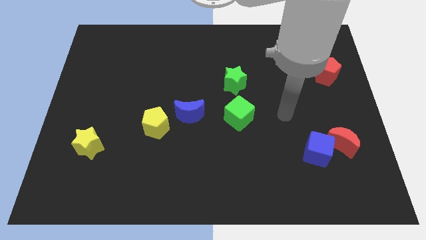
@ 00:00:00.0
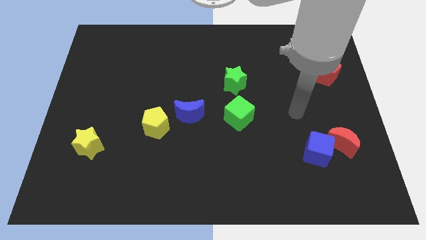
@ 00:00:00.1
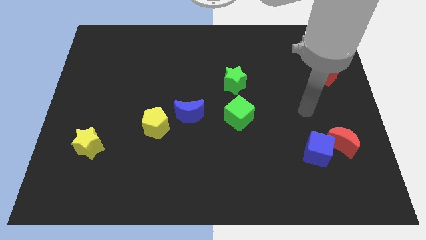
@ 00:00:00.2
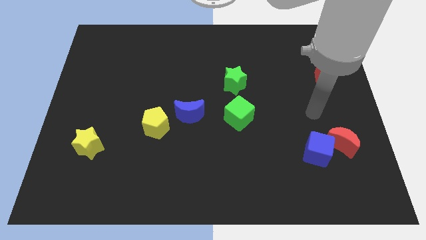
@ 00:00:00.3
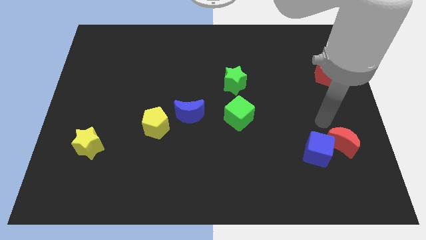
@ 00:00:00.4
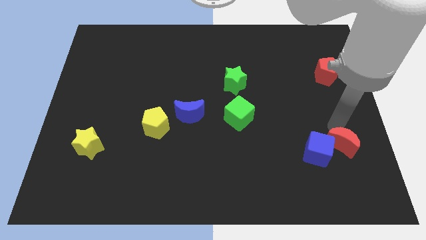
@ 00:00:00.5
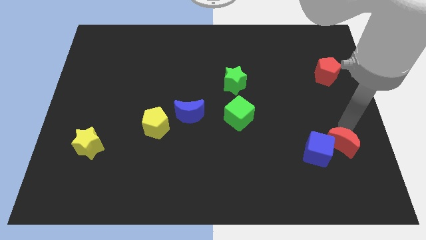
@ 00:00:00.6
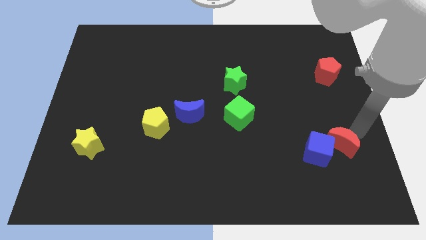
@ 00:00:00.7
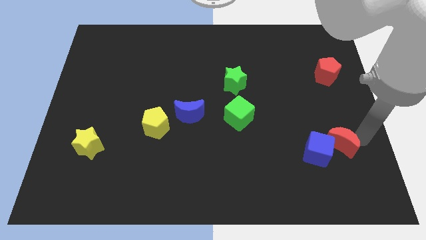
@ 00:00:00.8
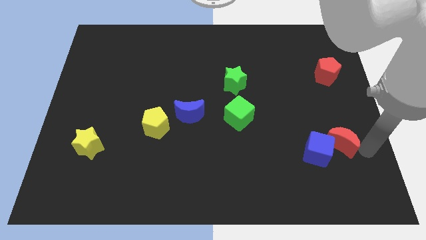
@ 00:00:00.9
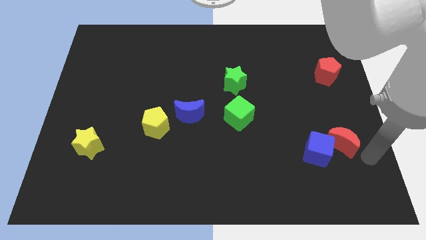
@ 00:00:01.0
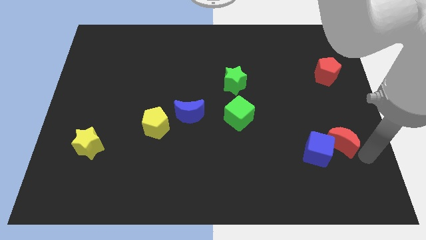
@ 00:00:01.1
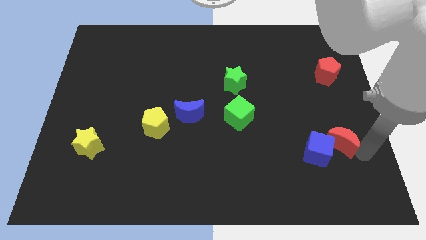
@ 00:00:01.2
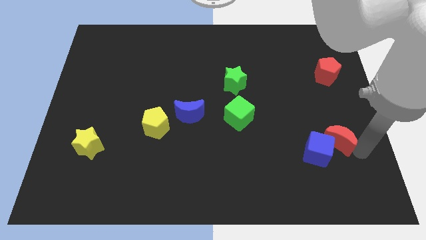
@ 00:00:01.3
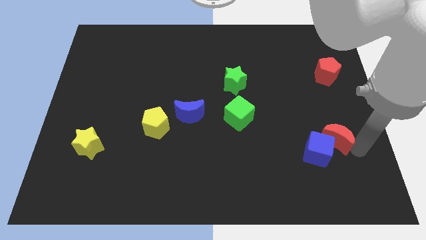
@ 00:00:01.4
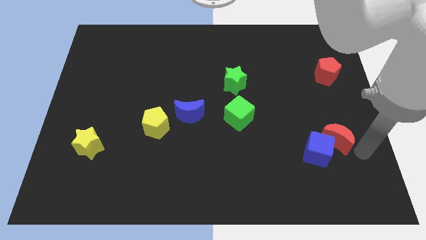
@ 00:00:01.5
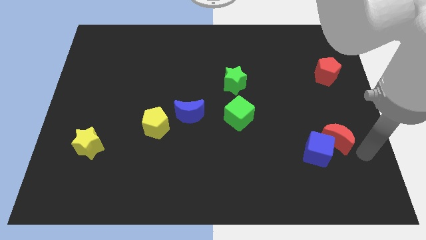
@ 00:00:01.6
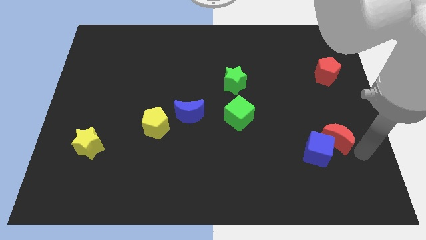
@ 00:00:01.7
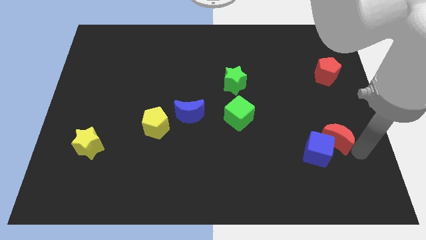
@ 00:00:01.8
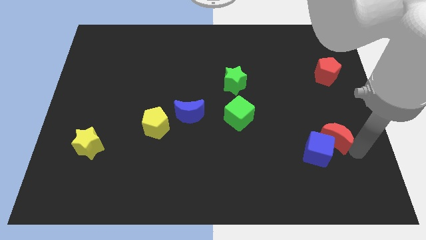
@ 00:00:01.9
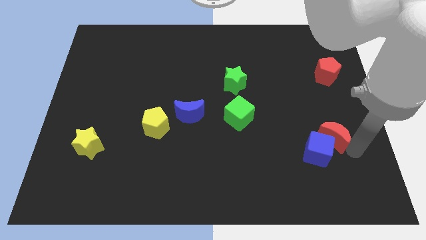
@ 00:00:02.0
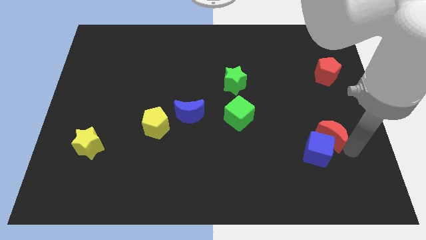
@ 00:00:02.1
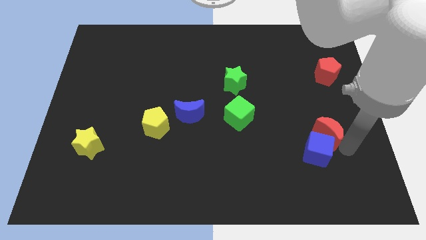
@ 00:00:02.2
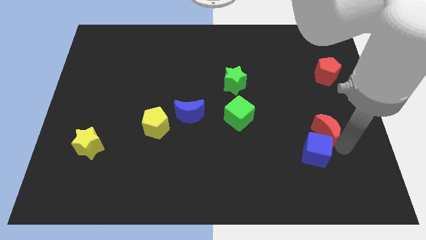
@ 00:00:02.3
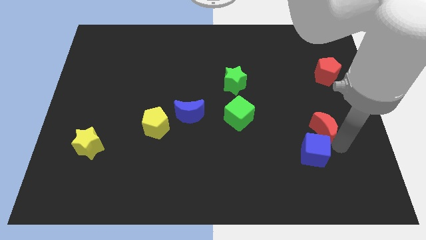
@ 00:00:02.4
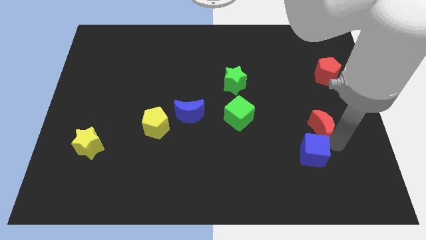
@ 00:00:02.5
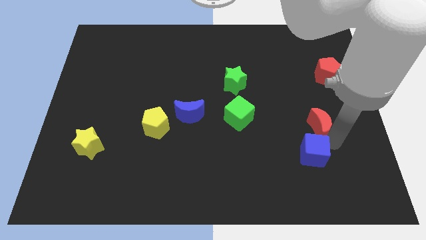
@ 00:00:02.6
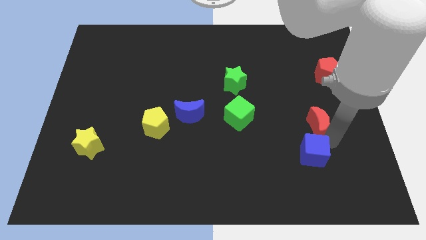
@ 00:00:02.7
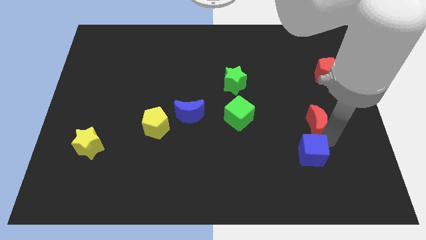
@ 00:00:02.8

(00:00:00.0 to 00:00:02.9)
push the red moon up and left a bit

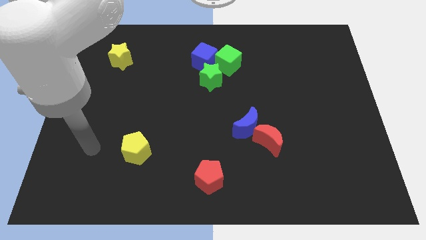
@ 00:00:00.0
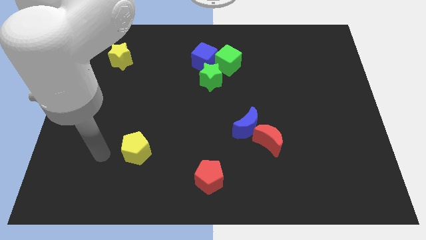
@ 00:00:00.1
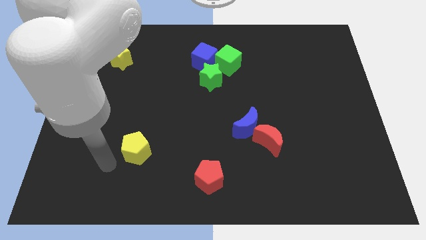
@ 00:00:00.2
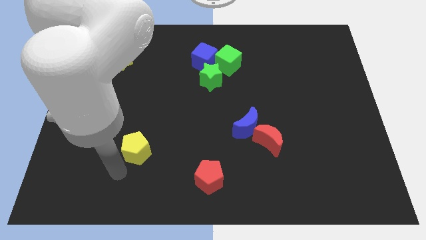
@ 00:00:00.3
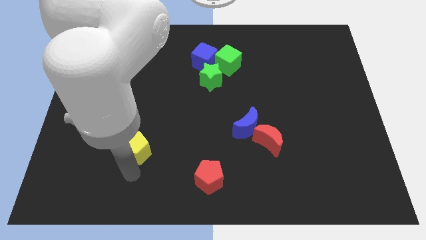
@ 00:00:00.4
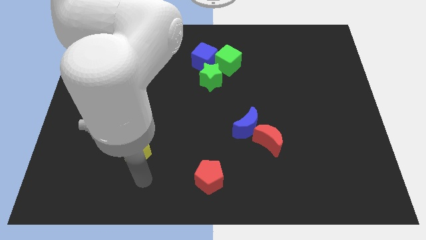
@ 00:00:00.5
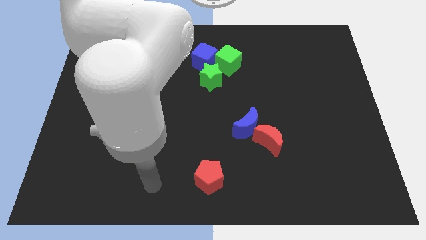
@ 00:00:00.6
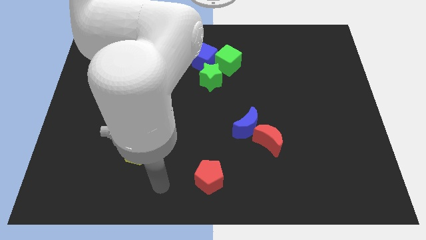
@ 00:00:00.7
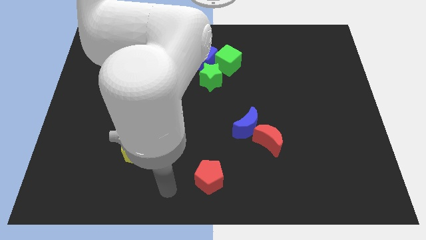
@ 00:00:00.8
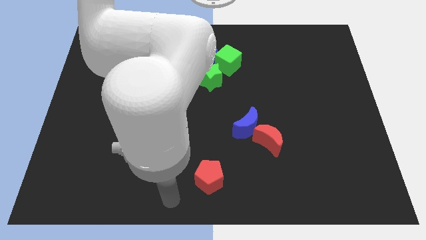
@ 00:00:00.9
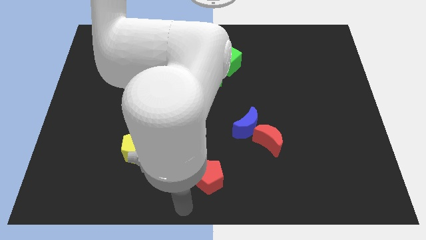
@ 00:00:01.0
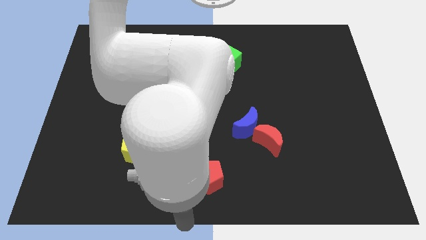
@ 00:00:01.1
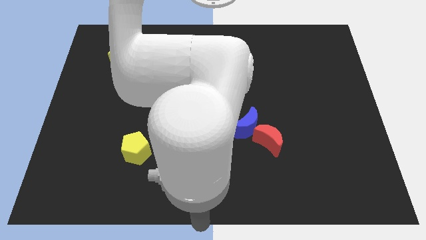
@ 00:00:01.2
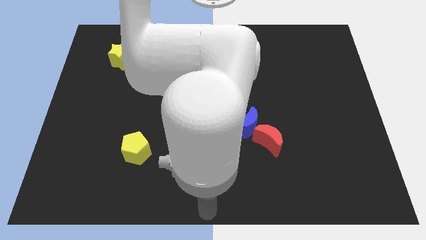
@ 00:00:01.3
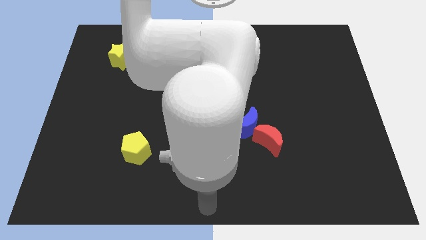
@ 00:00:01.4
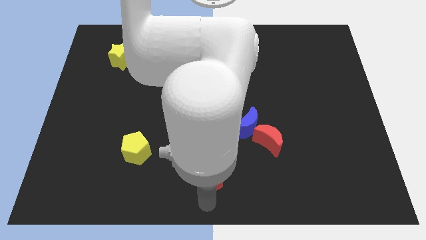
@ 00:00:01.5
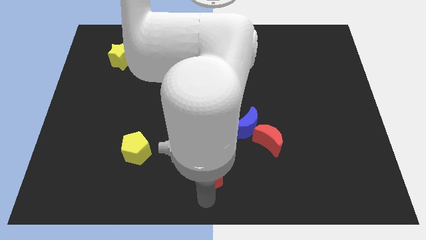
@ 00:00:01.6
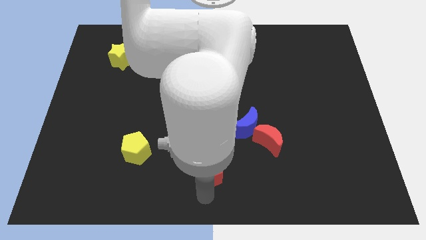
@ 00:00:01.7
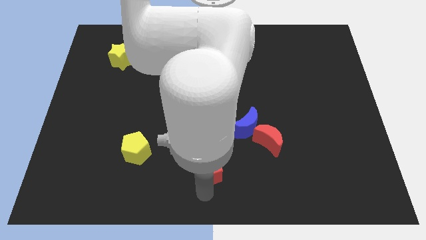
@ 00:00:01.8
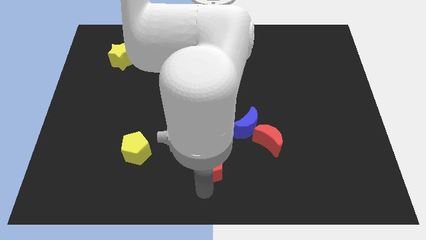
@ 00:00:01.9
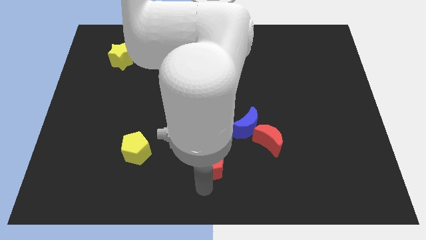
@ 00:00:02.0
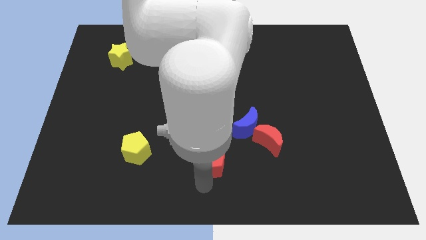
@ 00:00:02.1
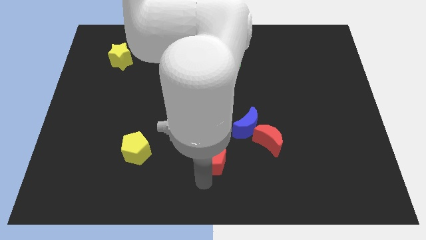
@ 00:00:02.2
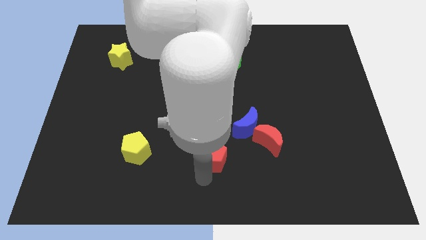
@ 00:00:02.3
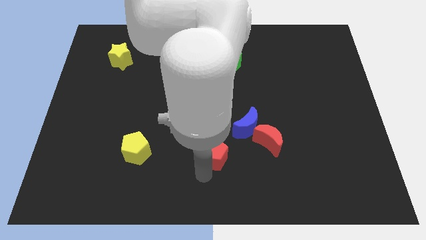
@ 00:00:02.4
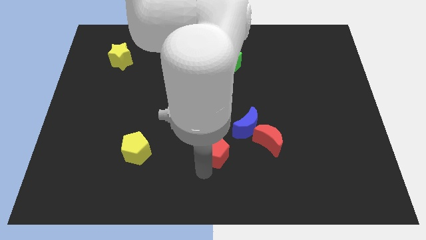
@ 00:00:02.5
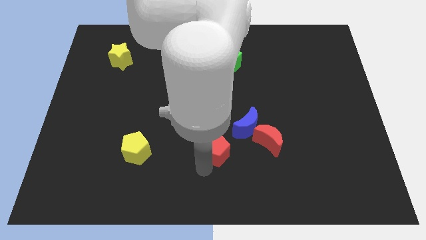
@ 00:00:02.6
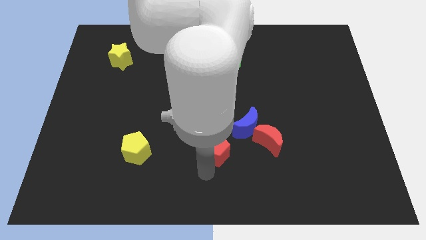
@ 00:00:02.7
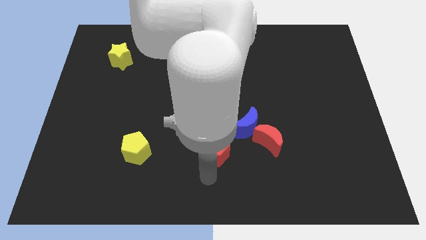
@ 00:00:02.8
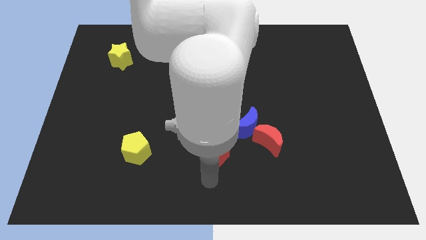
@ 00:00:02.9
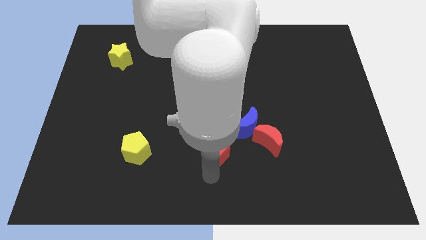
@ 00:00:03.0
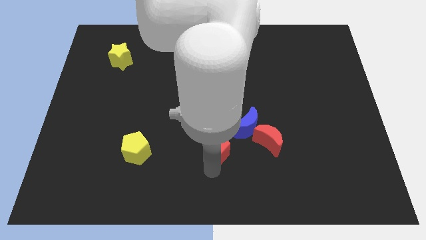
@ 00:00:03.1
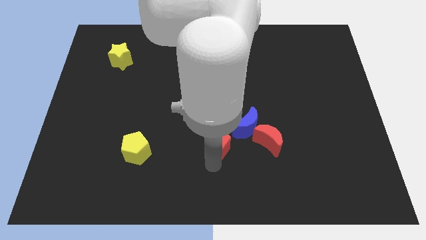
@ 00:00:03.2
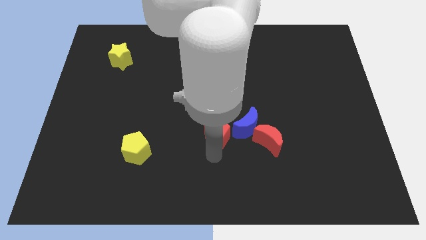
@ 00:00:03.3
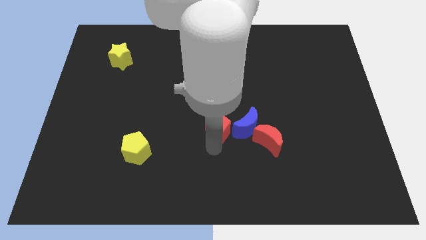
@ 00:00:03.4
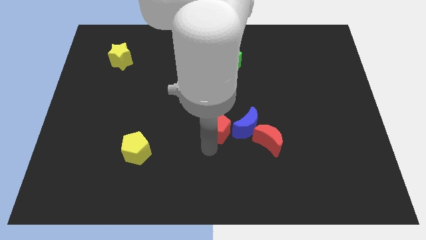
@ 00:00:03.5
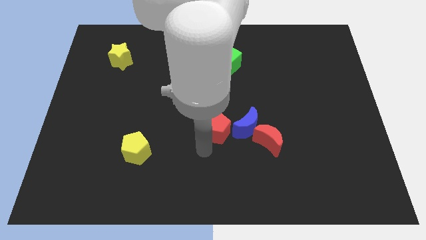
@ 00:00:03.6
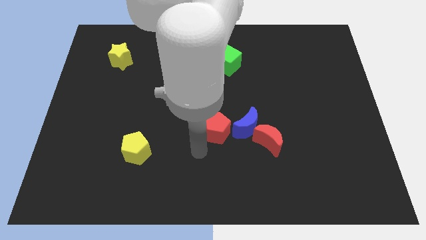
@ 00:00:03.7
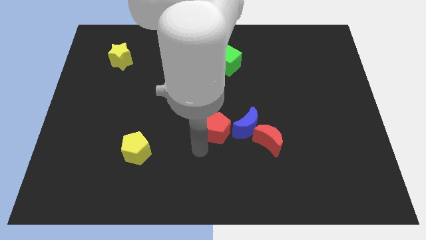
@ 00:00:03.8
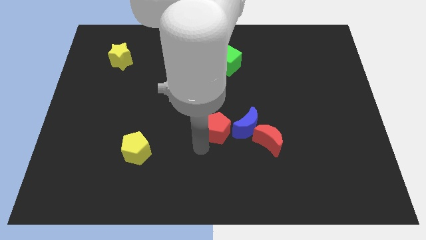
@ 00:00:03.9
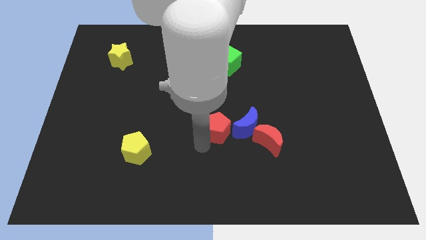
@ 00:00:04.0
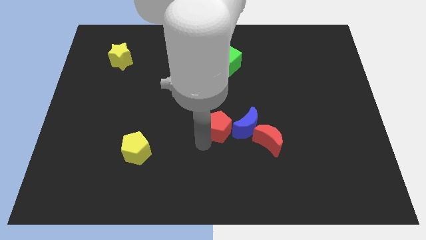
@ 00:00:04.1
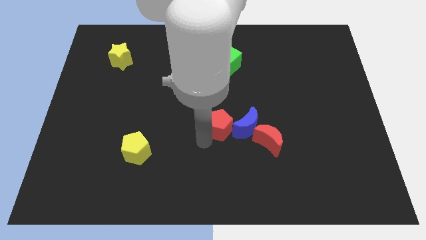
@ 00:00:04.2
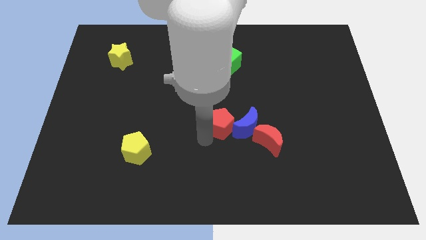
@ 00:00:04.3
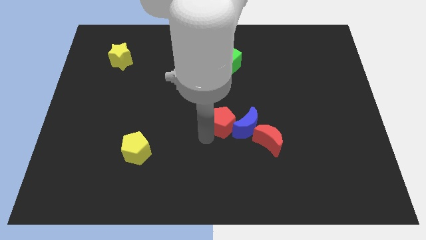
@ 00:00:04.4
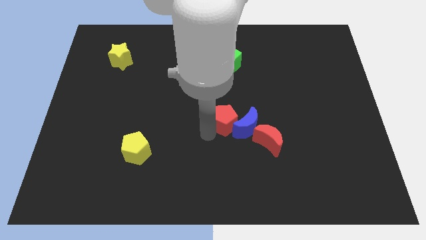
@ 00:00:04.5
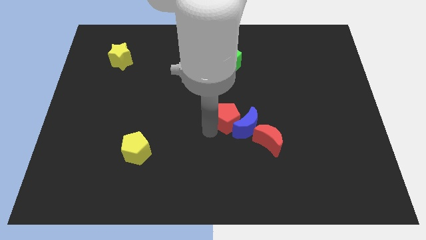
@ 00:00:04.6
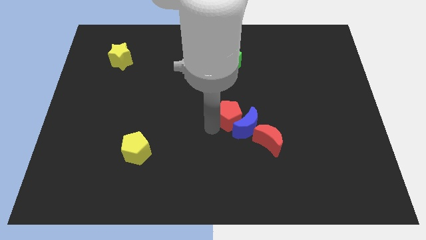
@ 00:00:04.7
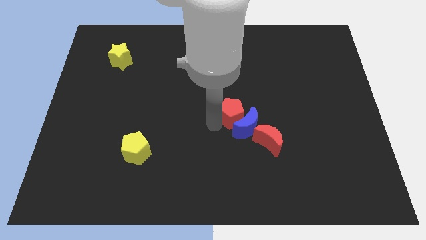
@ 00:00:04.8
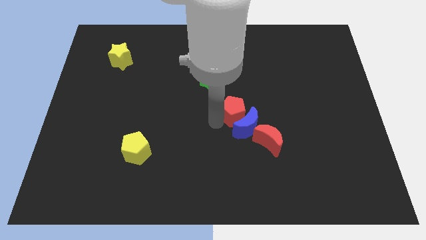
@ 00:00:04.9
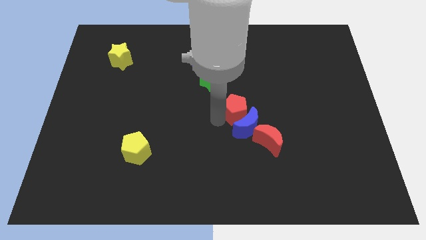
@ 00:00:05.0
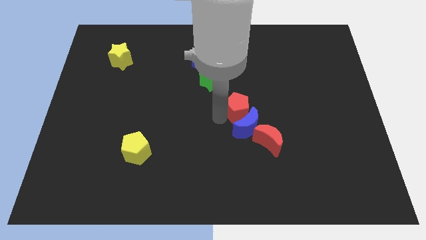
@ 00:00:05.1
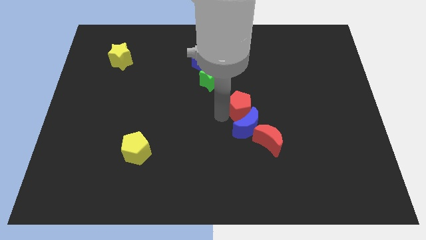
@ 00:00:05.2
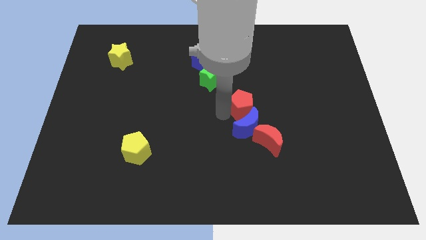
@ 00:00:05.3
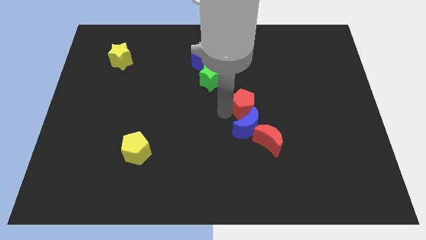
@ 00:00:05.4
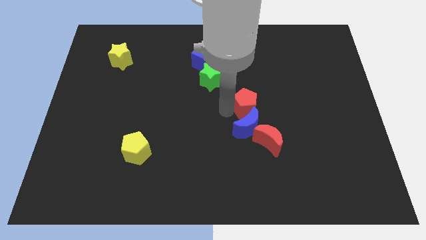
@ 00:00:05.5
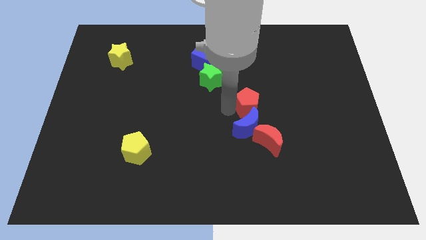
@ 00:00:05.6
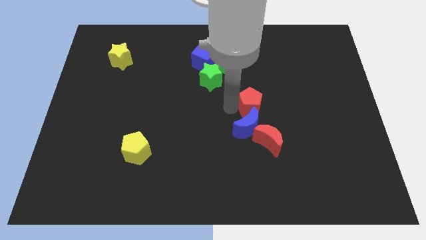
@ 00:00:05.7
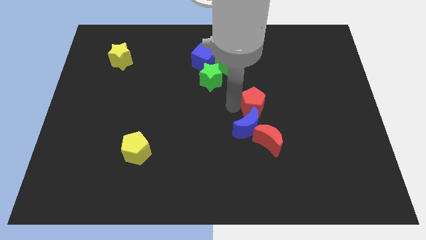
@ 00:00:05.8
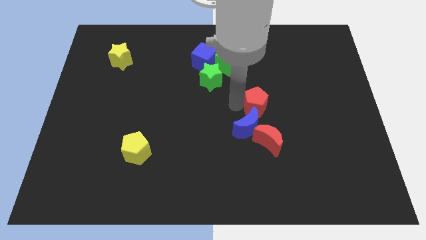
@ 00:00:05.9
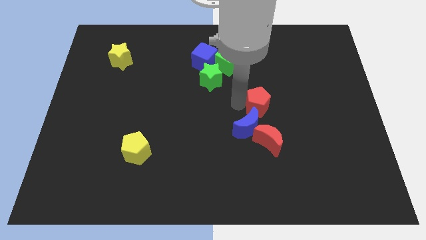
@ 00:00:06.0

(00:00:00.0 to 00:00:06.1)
slide the red pentagon upwards and to the right diagonally
